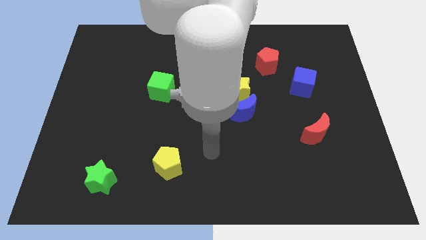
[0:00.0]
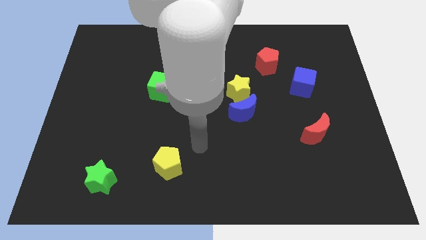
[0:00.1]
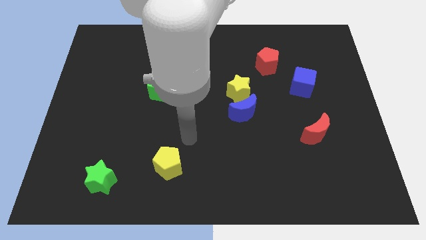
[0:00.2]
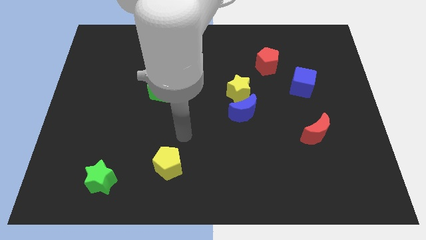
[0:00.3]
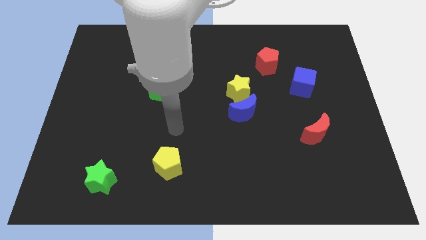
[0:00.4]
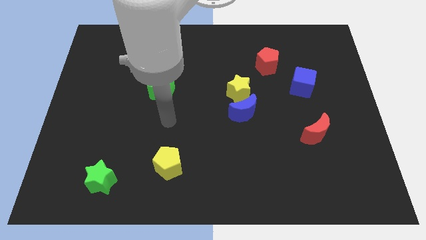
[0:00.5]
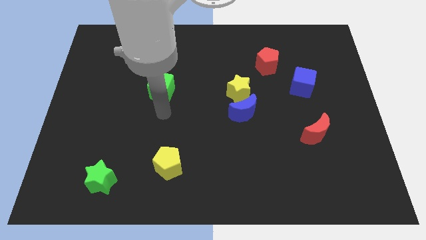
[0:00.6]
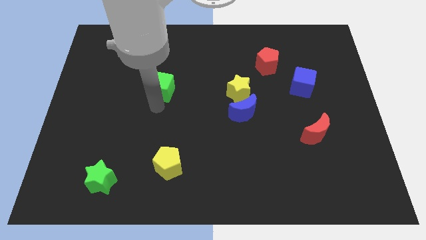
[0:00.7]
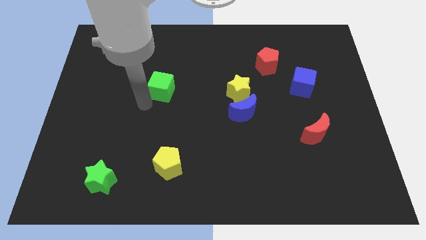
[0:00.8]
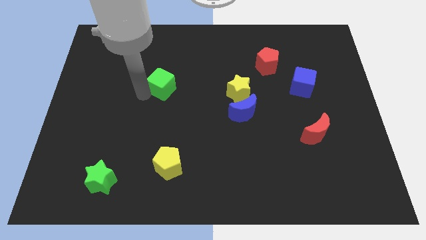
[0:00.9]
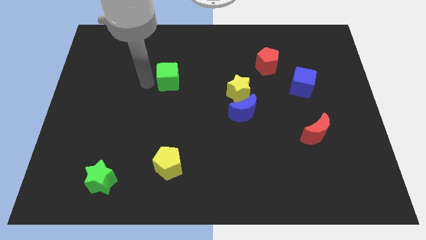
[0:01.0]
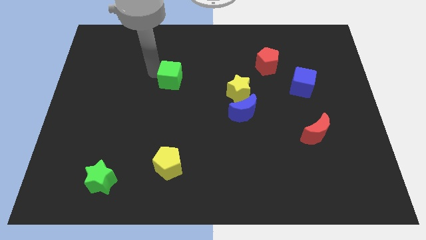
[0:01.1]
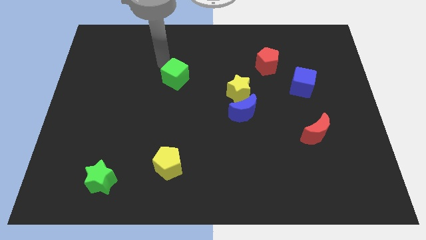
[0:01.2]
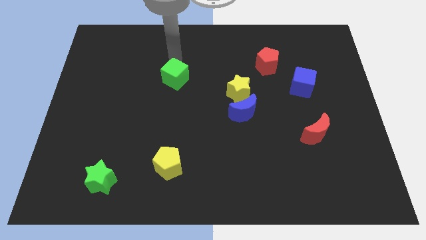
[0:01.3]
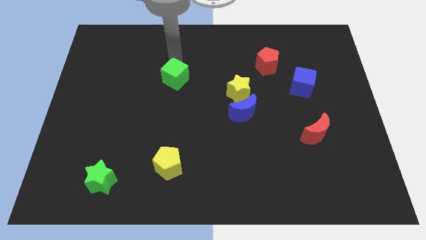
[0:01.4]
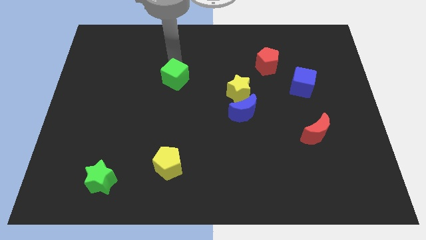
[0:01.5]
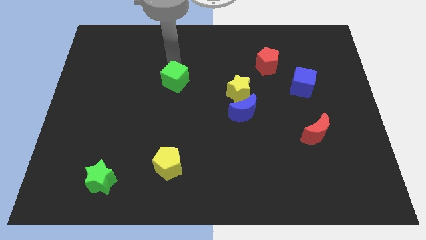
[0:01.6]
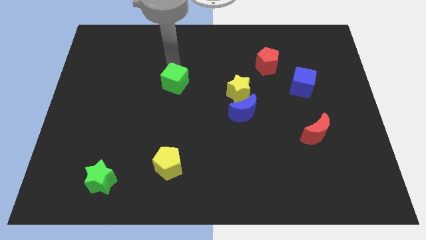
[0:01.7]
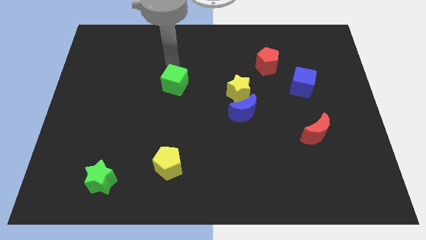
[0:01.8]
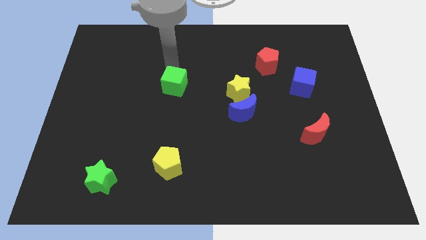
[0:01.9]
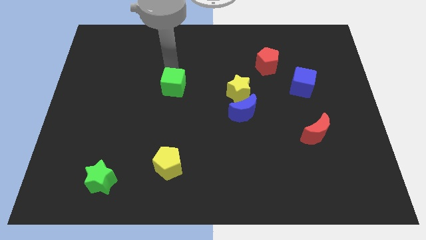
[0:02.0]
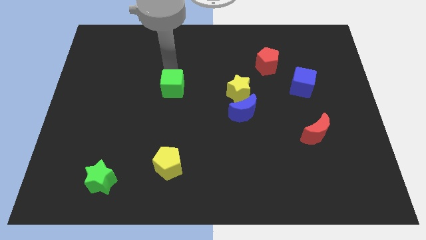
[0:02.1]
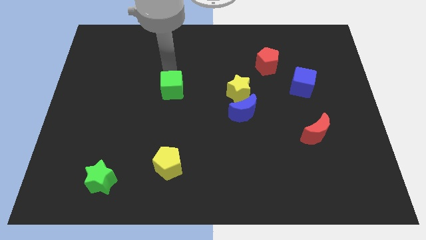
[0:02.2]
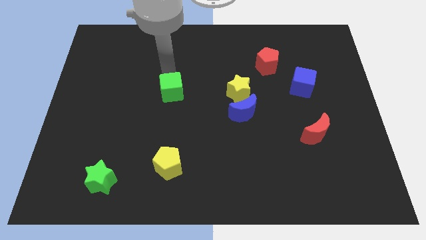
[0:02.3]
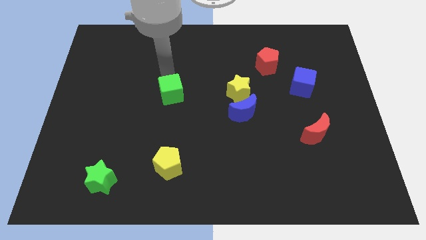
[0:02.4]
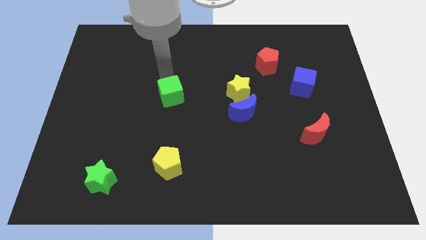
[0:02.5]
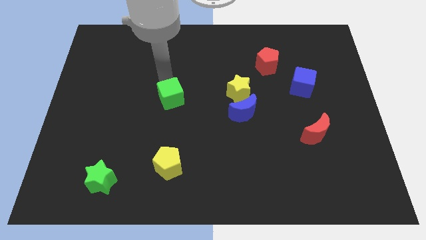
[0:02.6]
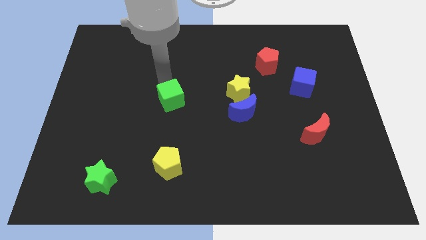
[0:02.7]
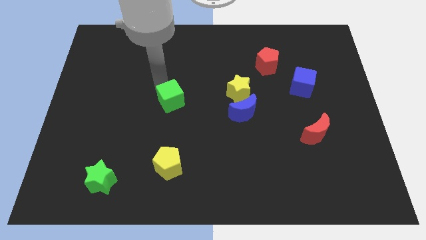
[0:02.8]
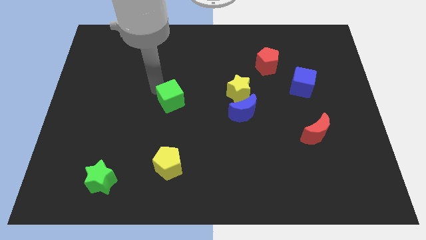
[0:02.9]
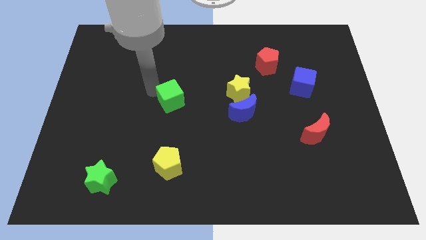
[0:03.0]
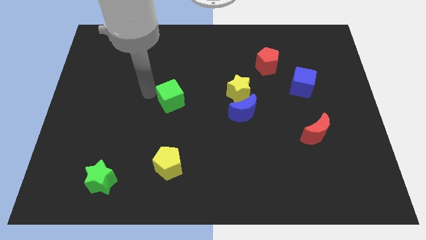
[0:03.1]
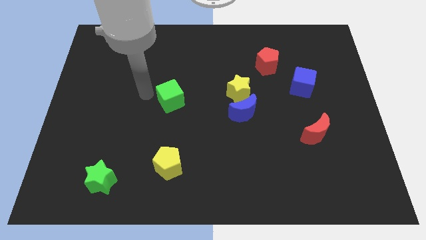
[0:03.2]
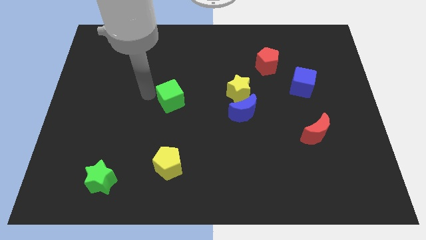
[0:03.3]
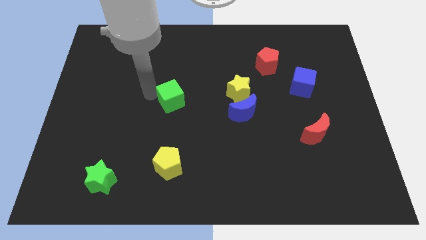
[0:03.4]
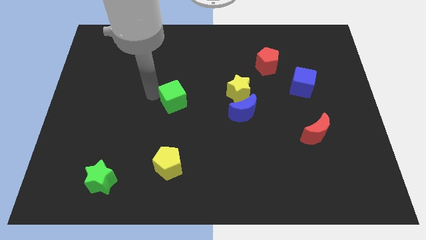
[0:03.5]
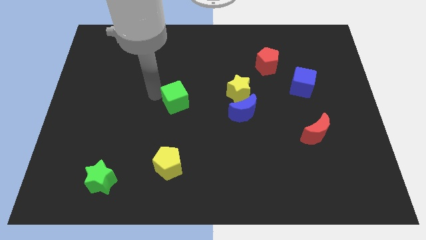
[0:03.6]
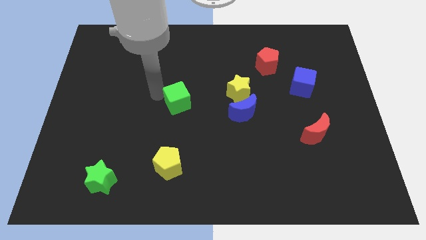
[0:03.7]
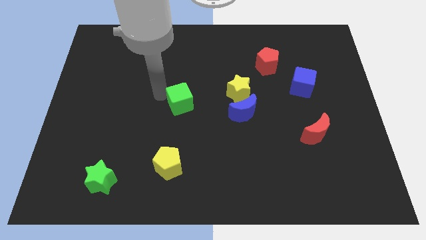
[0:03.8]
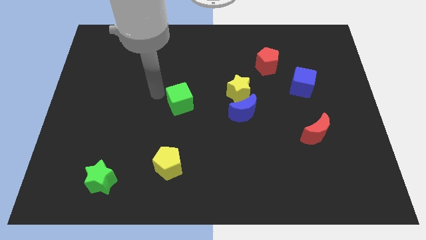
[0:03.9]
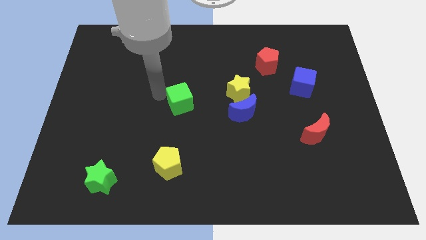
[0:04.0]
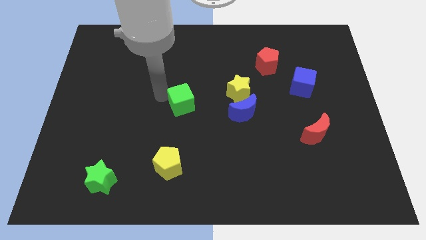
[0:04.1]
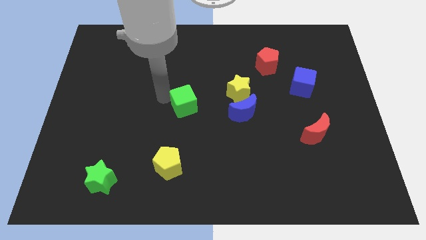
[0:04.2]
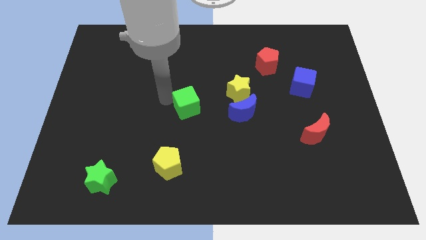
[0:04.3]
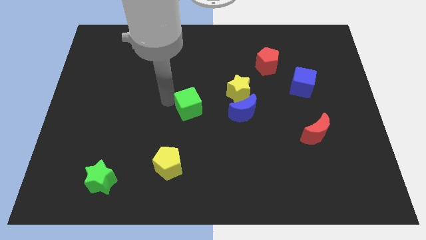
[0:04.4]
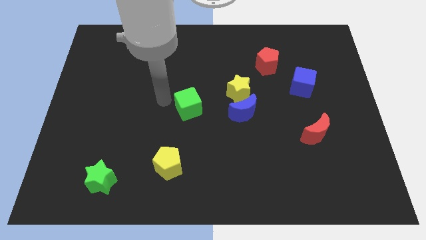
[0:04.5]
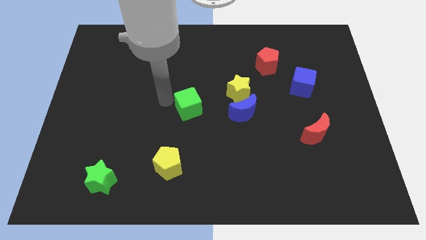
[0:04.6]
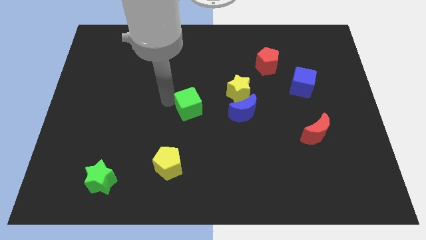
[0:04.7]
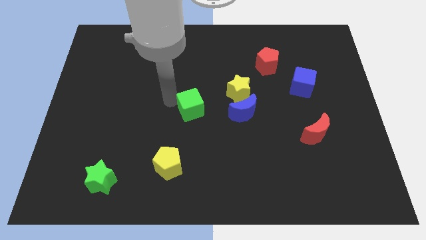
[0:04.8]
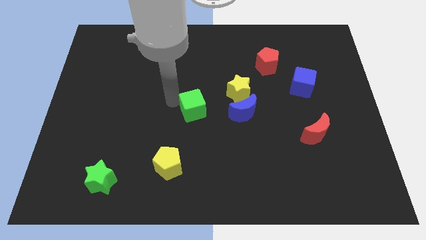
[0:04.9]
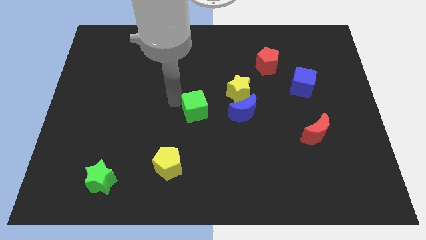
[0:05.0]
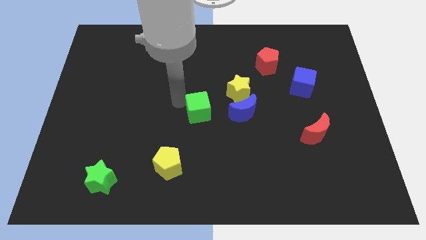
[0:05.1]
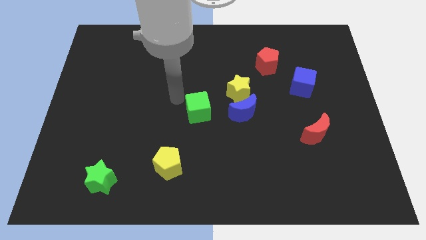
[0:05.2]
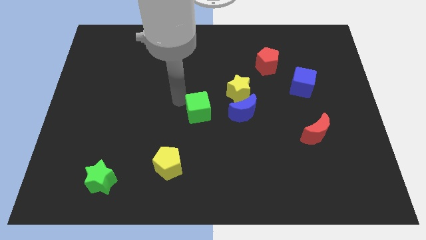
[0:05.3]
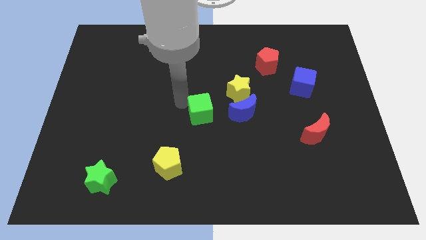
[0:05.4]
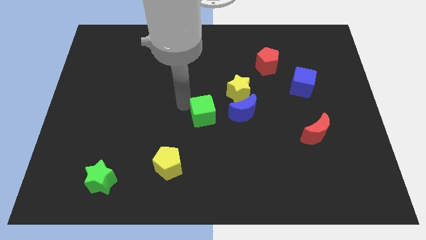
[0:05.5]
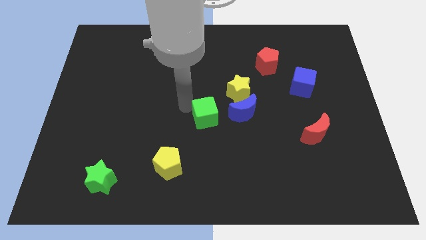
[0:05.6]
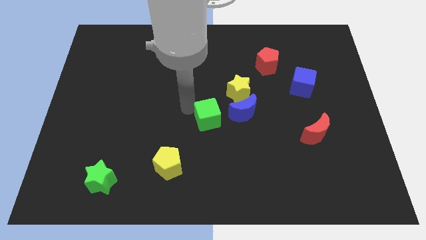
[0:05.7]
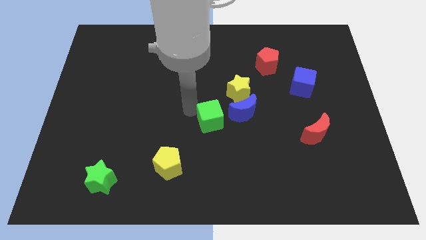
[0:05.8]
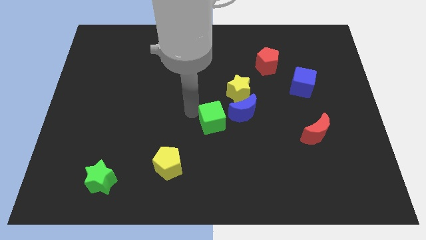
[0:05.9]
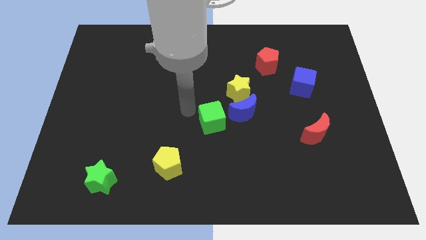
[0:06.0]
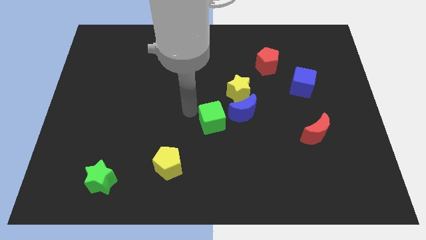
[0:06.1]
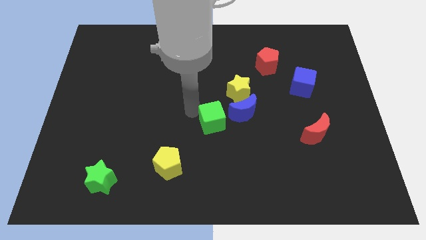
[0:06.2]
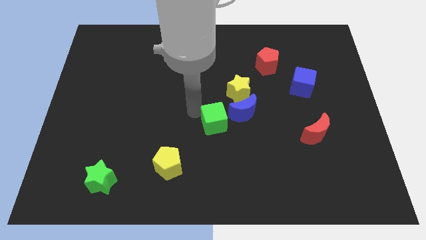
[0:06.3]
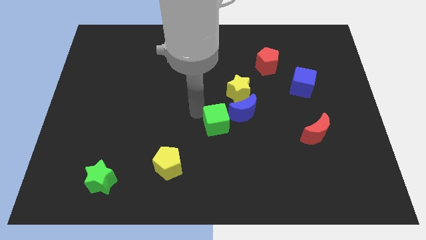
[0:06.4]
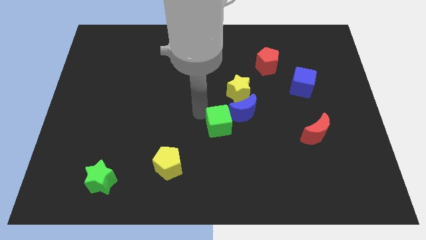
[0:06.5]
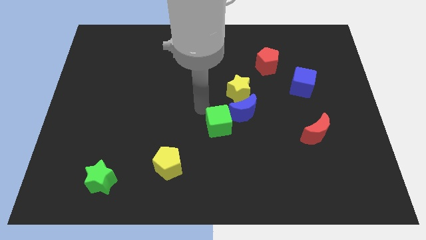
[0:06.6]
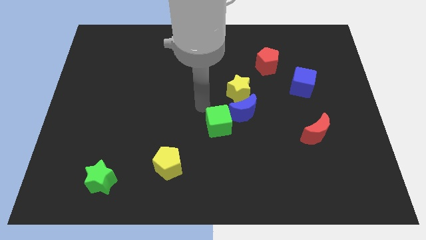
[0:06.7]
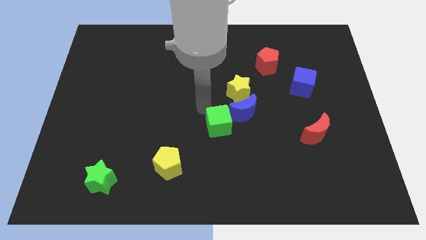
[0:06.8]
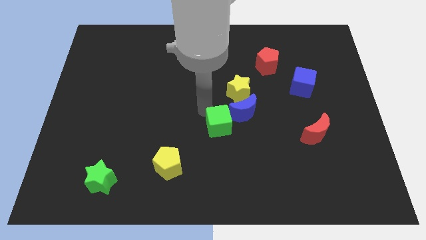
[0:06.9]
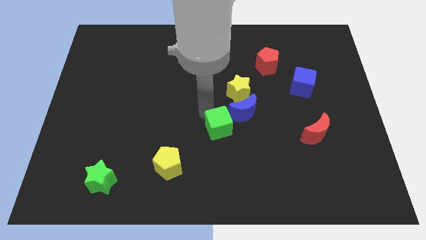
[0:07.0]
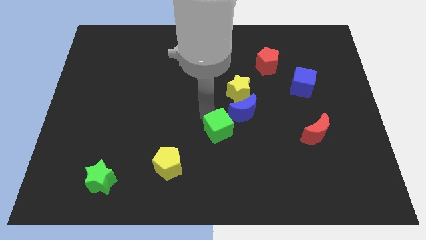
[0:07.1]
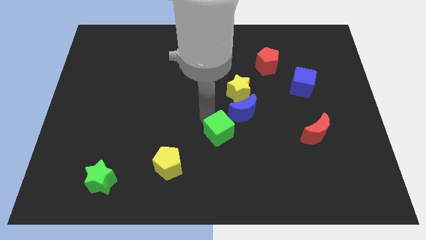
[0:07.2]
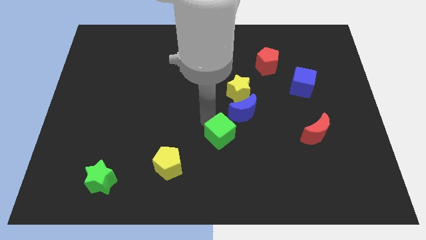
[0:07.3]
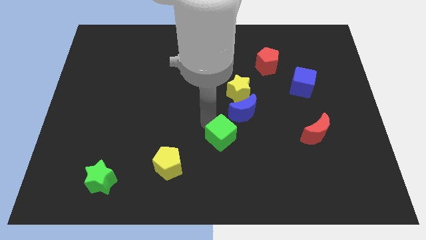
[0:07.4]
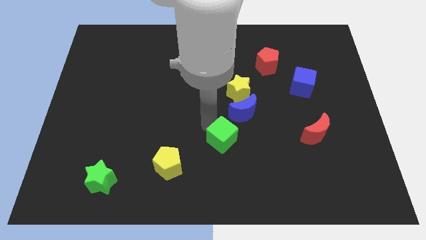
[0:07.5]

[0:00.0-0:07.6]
move the green cube down and right diagonally

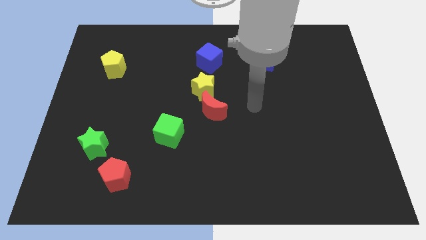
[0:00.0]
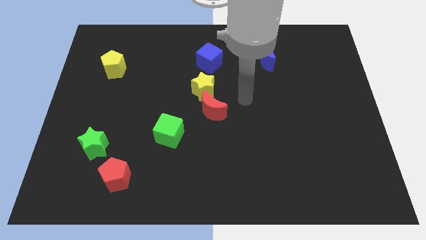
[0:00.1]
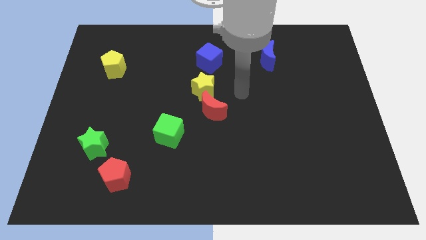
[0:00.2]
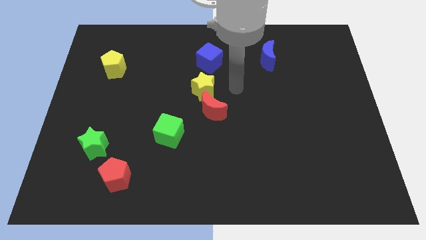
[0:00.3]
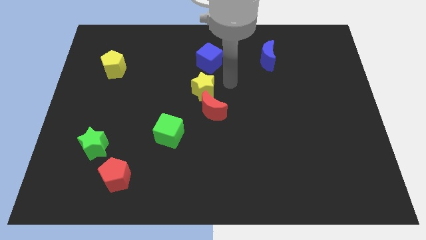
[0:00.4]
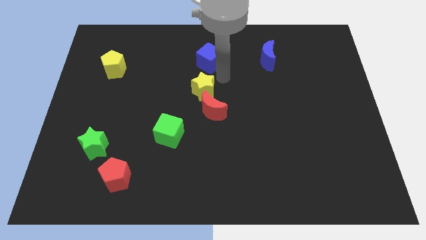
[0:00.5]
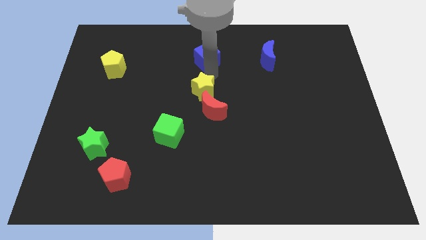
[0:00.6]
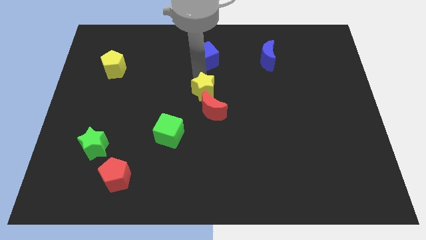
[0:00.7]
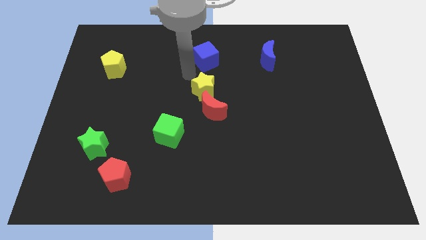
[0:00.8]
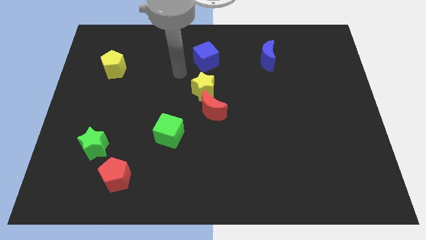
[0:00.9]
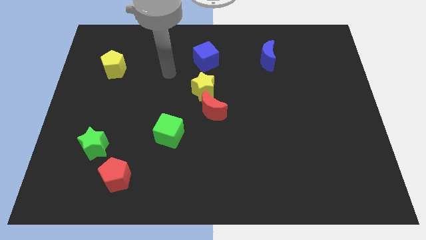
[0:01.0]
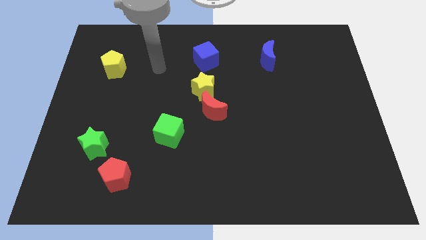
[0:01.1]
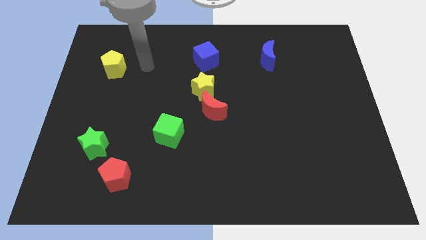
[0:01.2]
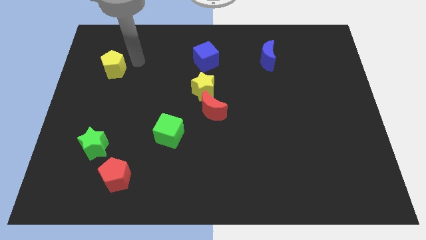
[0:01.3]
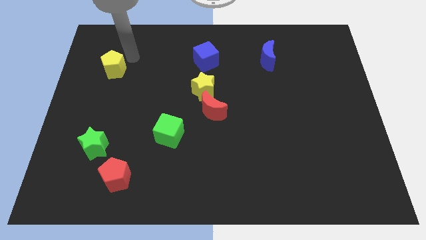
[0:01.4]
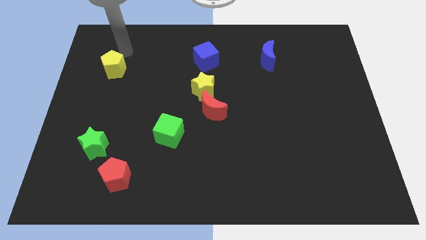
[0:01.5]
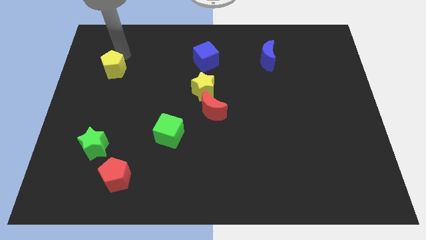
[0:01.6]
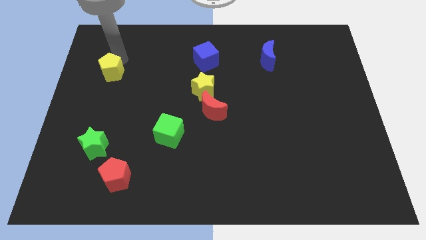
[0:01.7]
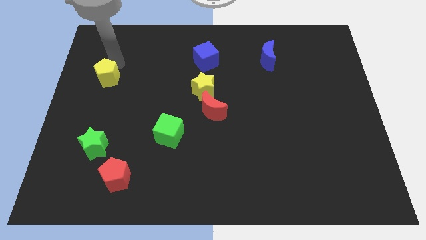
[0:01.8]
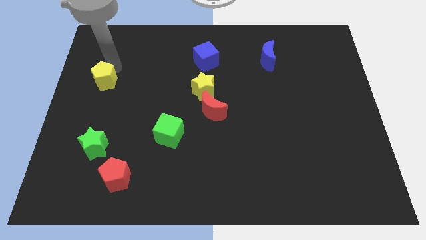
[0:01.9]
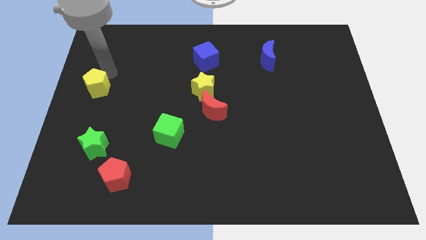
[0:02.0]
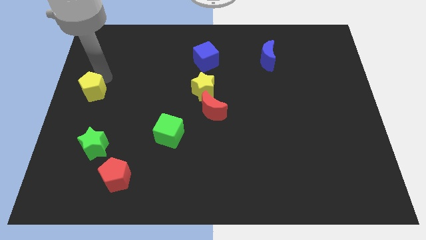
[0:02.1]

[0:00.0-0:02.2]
push the yellow pentagon a little down
